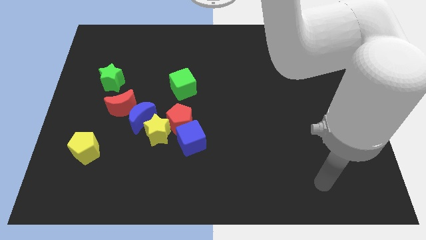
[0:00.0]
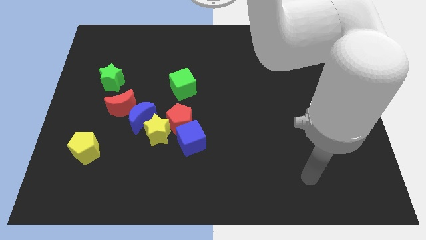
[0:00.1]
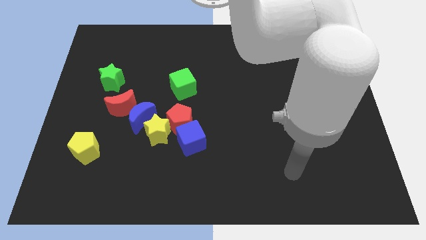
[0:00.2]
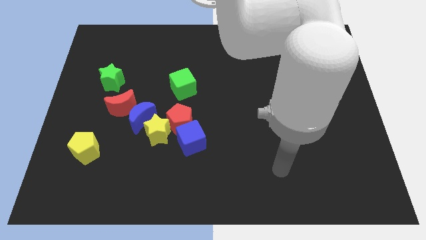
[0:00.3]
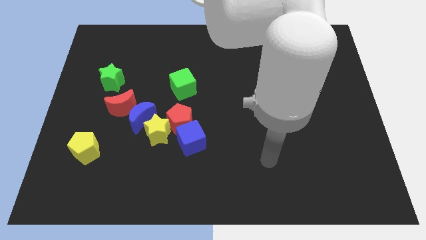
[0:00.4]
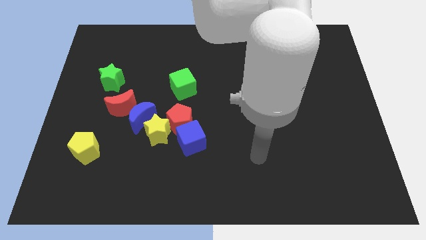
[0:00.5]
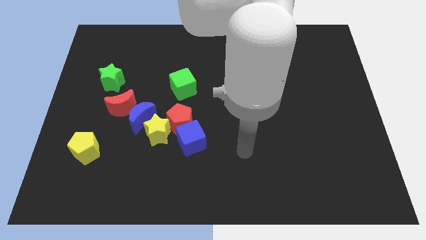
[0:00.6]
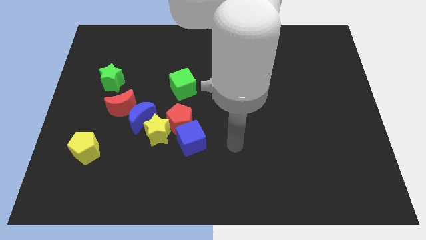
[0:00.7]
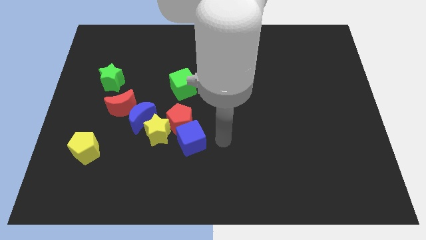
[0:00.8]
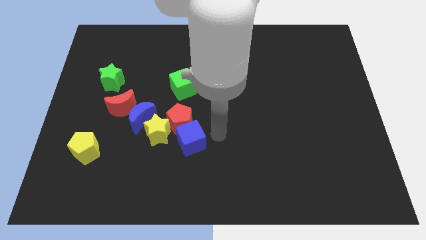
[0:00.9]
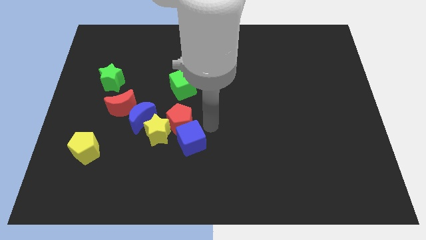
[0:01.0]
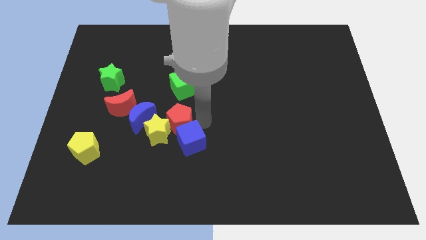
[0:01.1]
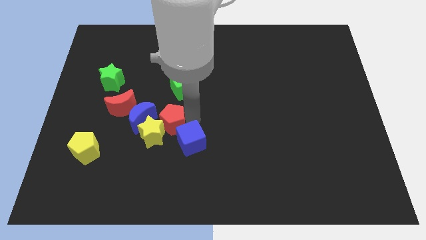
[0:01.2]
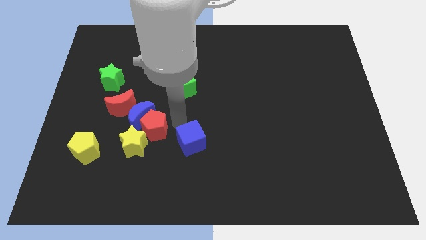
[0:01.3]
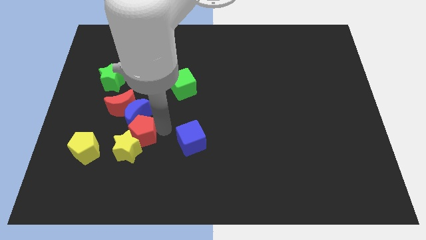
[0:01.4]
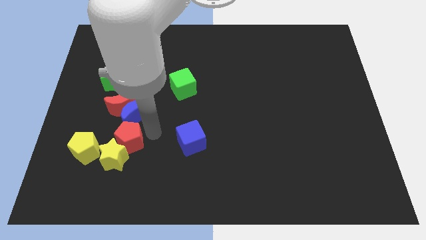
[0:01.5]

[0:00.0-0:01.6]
move the yellow star away from the blue moon, red pentagon, and blue cube

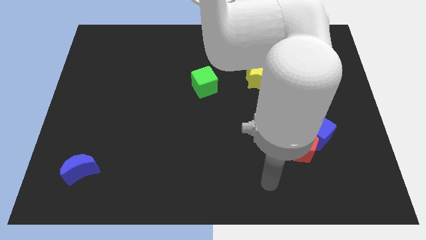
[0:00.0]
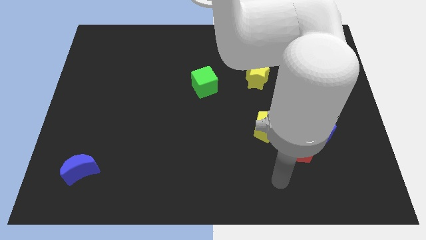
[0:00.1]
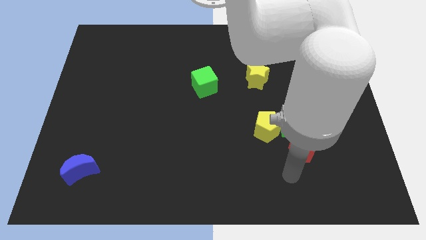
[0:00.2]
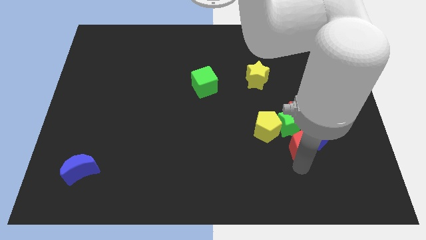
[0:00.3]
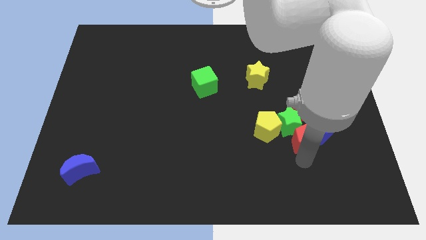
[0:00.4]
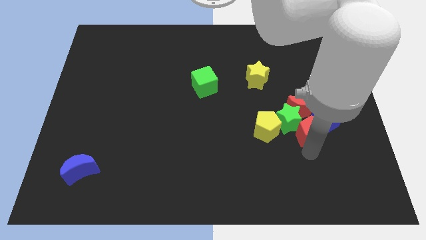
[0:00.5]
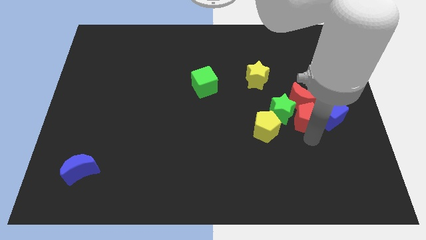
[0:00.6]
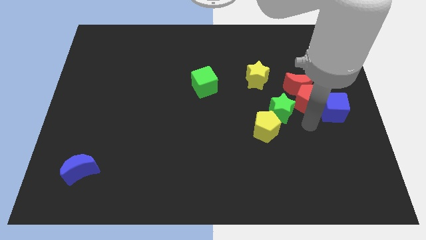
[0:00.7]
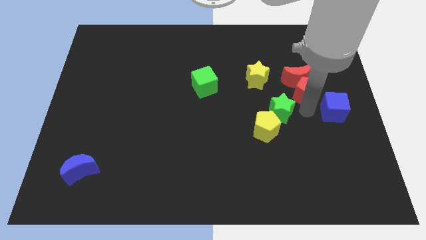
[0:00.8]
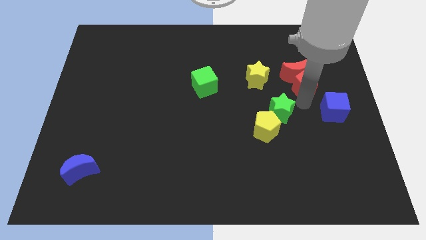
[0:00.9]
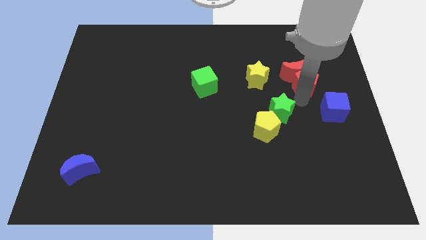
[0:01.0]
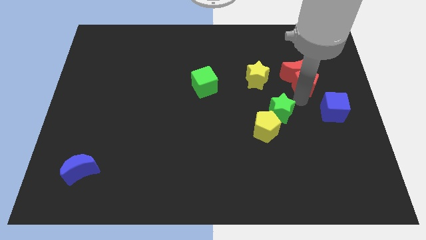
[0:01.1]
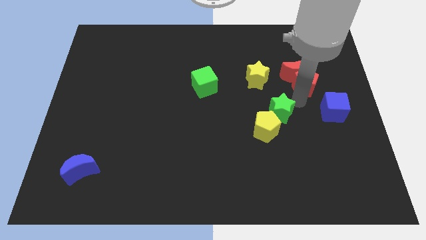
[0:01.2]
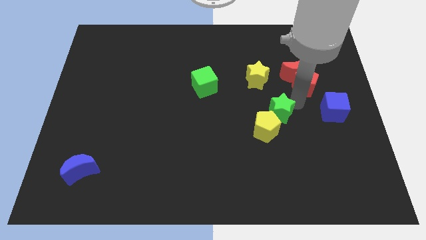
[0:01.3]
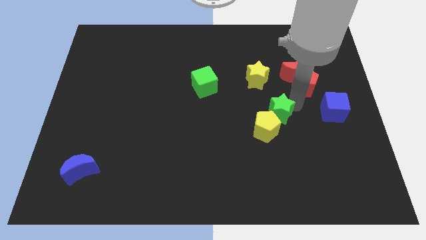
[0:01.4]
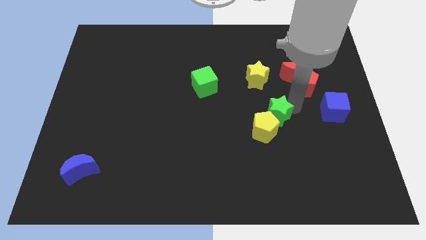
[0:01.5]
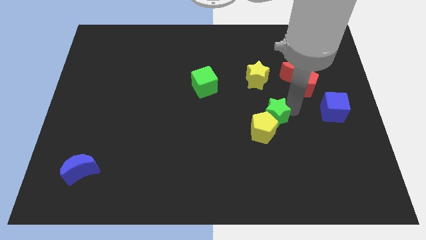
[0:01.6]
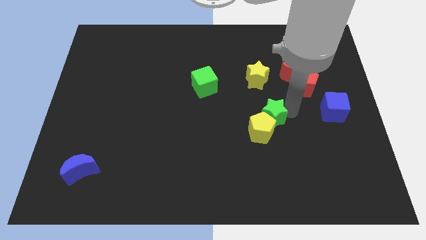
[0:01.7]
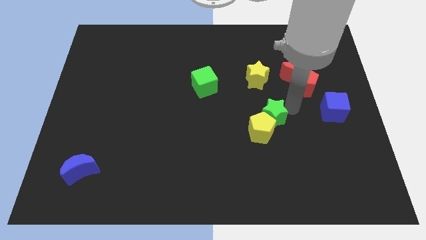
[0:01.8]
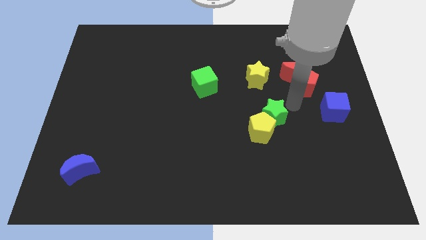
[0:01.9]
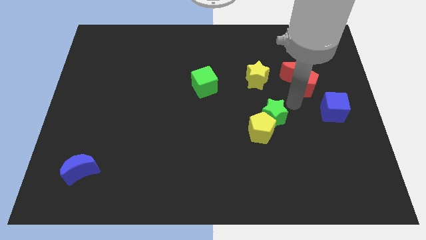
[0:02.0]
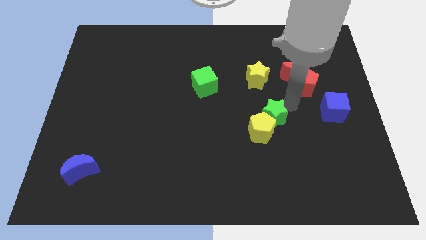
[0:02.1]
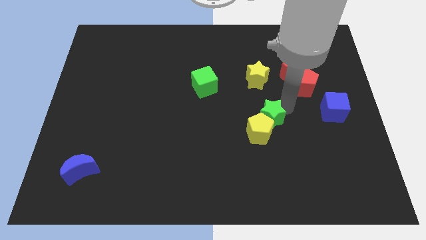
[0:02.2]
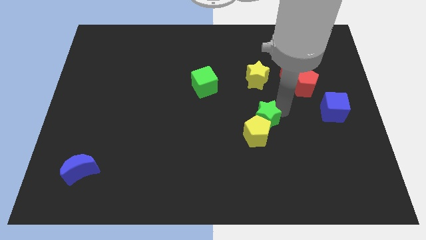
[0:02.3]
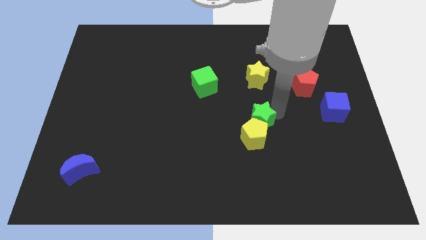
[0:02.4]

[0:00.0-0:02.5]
pull the green star apart from the clump

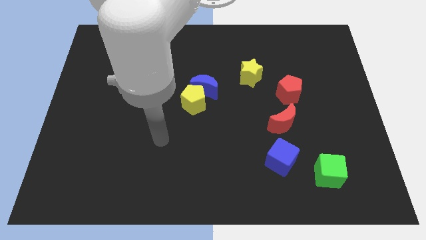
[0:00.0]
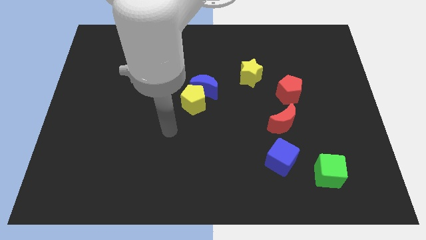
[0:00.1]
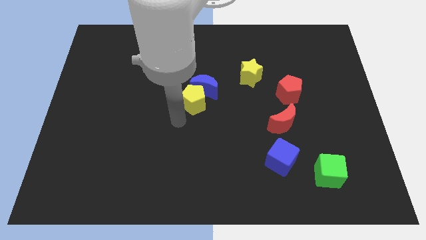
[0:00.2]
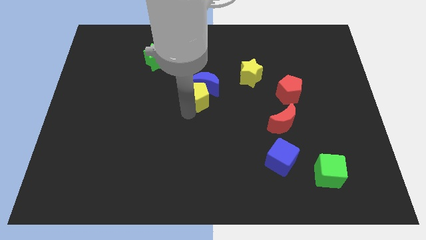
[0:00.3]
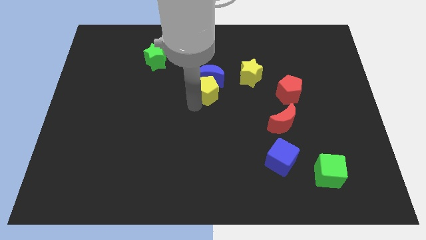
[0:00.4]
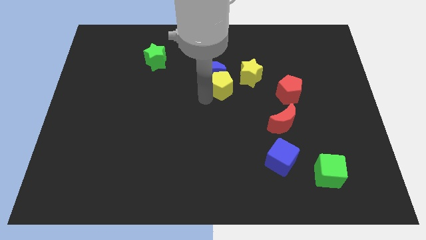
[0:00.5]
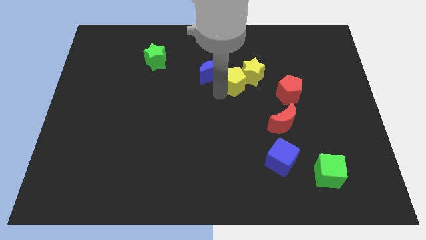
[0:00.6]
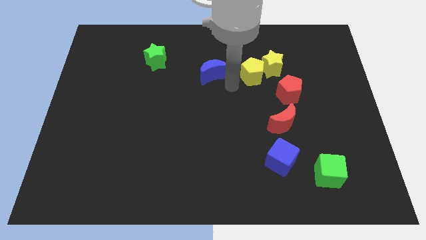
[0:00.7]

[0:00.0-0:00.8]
move the blue moon away from the yellow pentagon

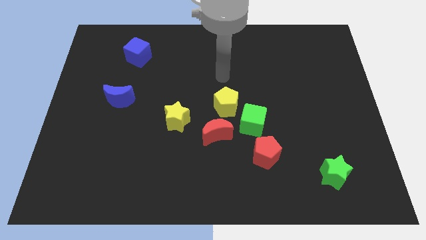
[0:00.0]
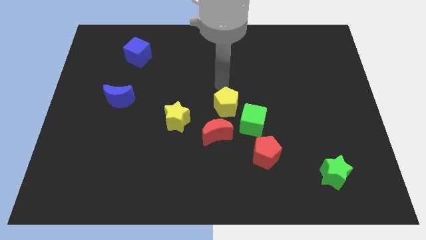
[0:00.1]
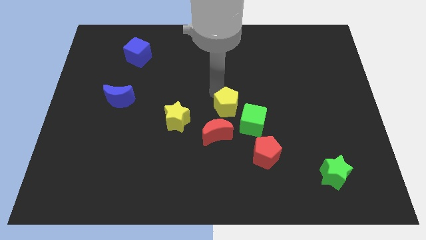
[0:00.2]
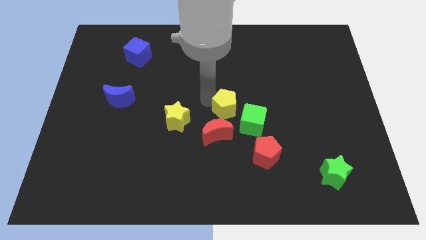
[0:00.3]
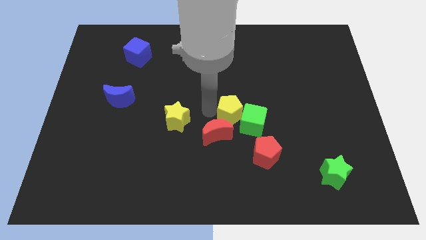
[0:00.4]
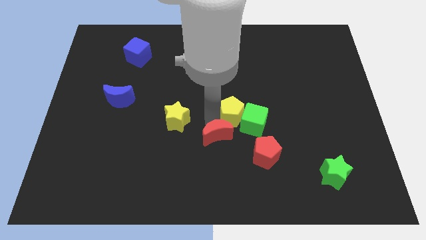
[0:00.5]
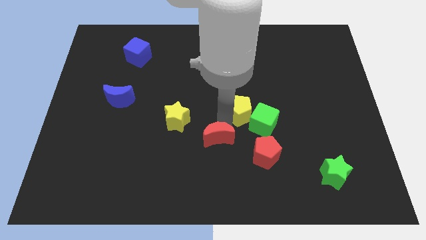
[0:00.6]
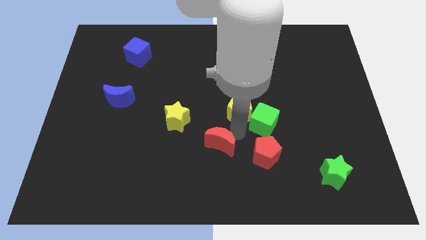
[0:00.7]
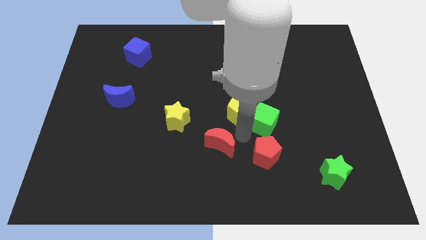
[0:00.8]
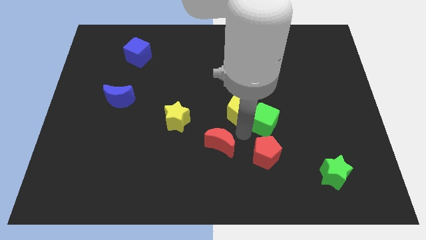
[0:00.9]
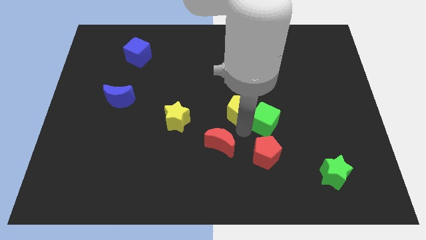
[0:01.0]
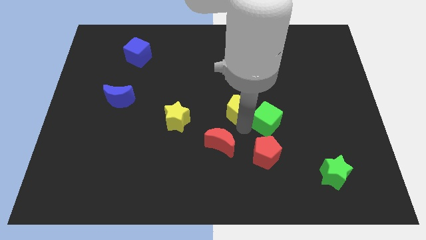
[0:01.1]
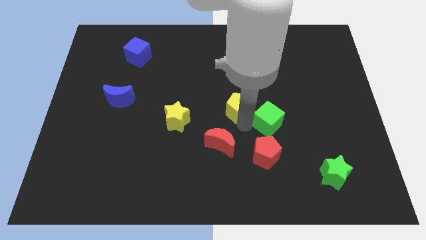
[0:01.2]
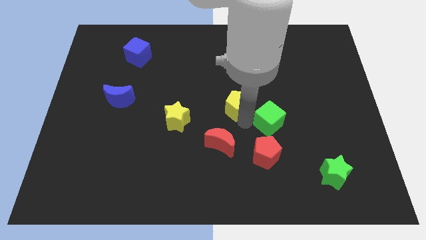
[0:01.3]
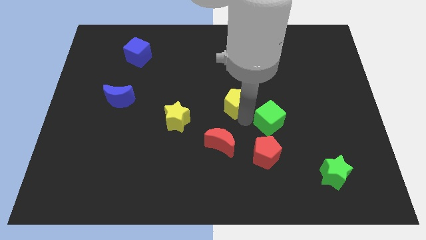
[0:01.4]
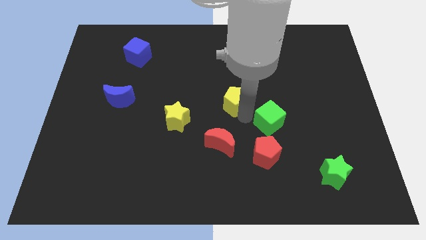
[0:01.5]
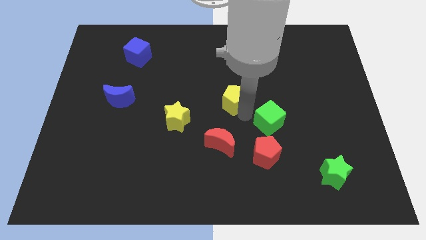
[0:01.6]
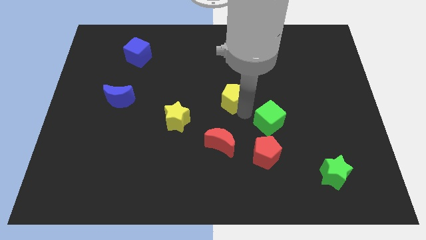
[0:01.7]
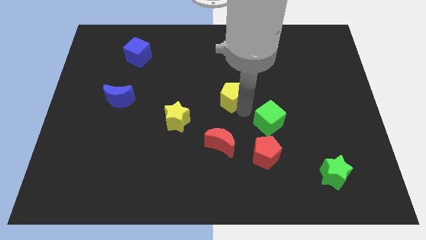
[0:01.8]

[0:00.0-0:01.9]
pull the yellow pentagon apart from the green cube and red moon

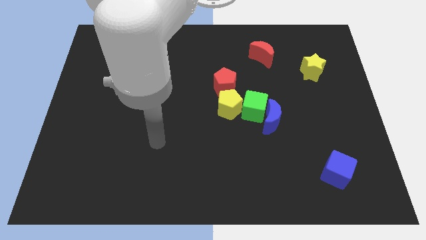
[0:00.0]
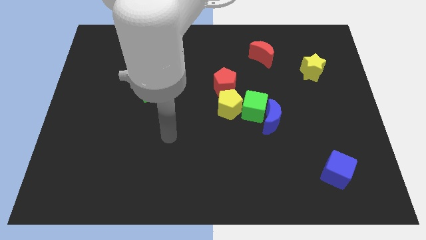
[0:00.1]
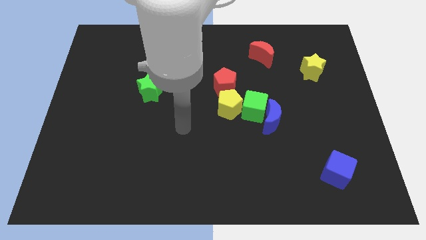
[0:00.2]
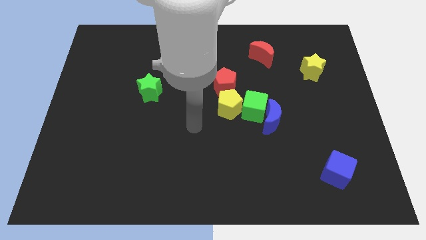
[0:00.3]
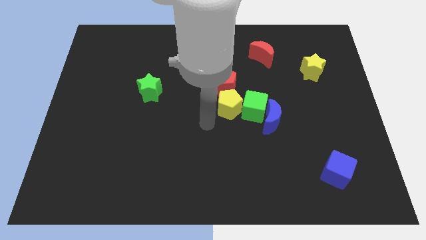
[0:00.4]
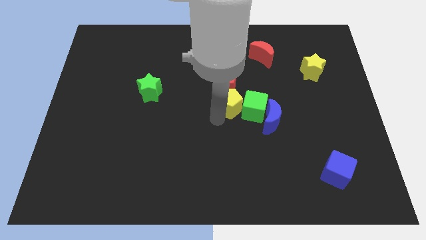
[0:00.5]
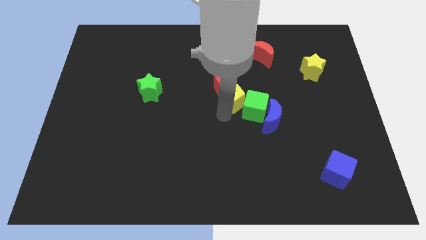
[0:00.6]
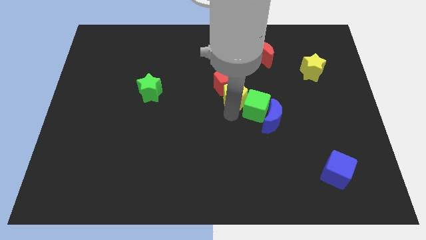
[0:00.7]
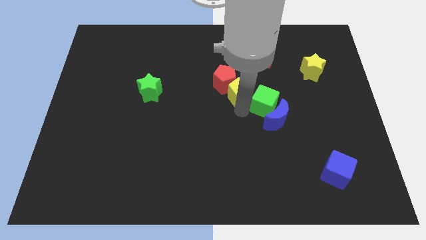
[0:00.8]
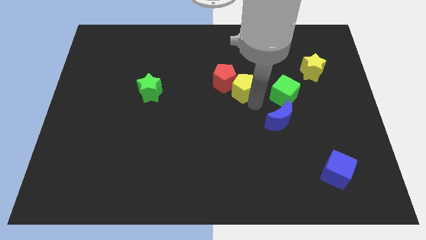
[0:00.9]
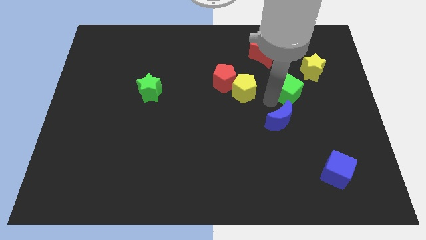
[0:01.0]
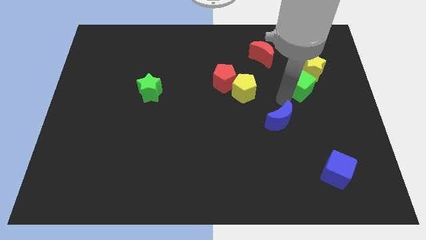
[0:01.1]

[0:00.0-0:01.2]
separate the blue moon from the green cube

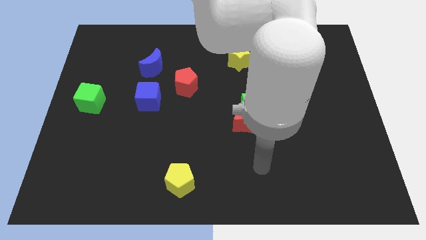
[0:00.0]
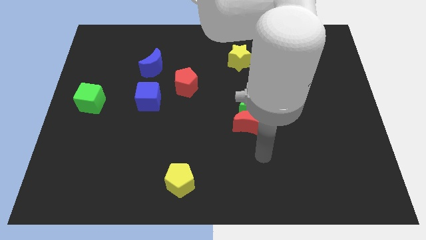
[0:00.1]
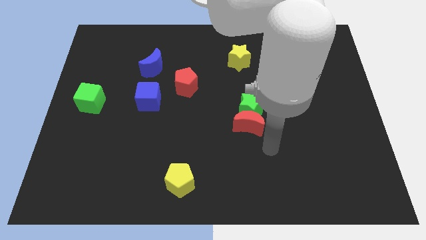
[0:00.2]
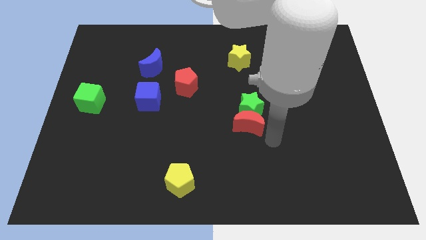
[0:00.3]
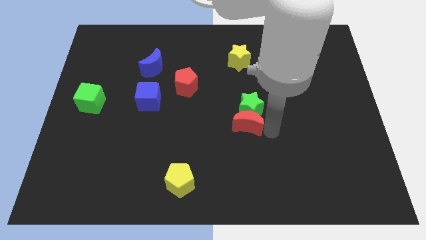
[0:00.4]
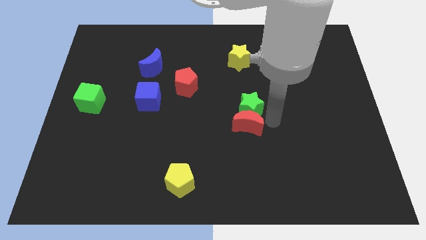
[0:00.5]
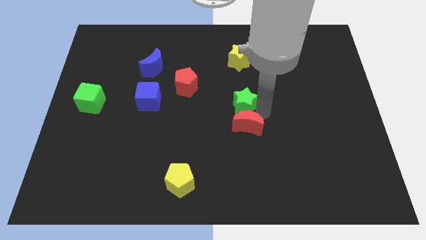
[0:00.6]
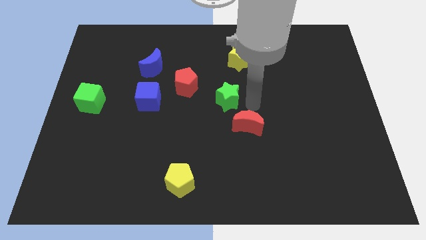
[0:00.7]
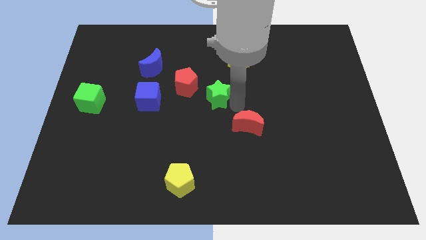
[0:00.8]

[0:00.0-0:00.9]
separate the red moon from the green star

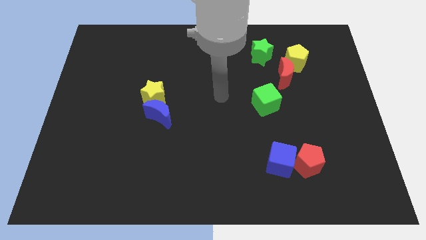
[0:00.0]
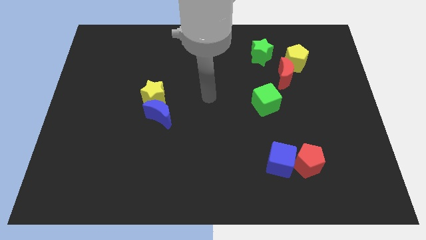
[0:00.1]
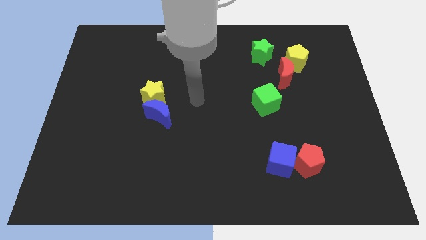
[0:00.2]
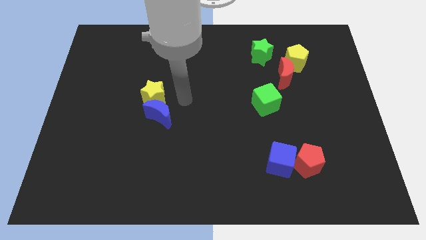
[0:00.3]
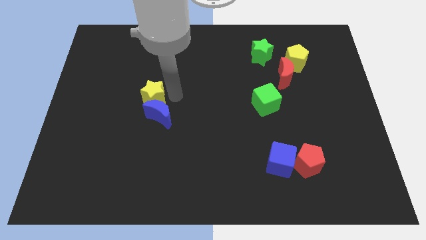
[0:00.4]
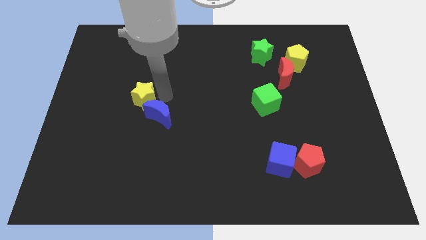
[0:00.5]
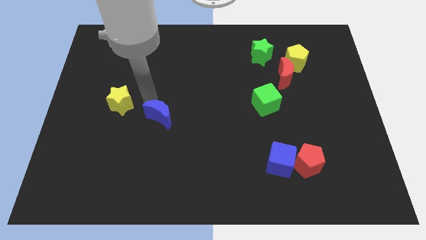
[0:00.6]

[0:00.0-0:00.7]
move the blue moon away from the yellow star
